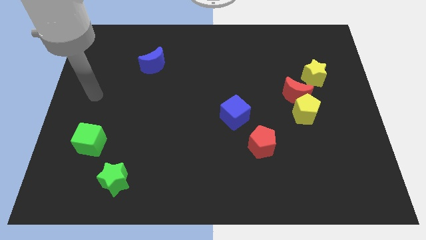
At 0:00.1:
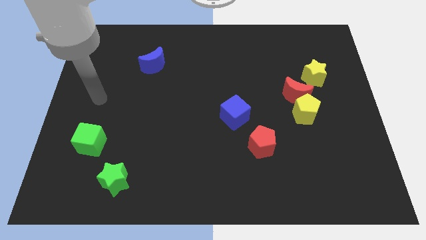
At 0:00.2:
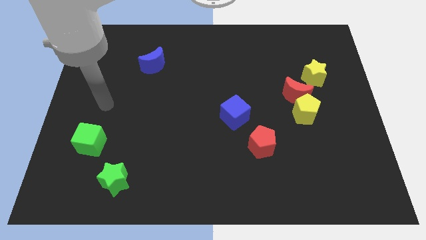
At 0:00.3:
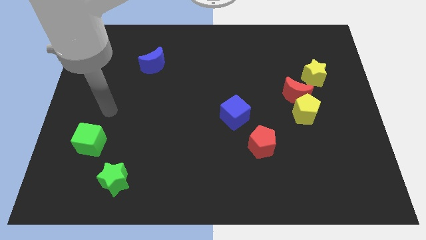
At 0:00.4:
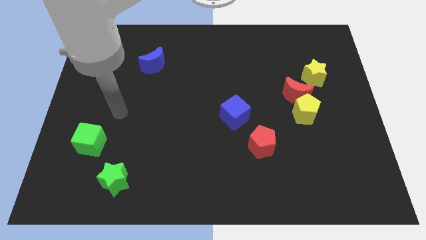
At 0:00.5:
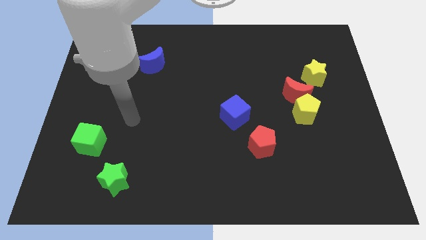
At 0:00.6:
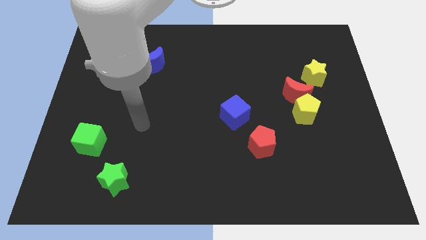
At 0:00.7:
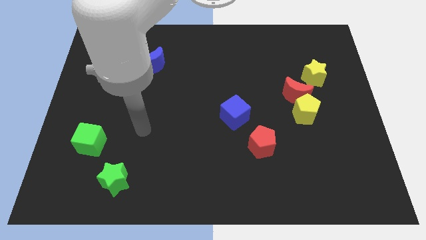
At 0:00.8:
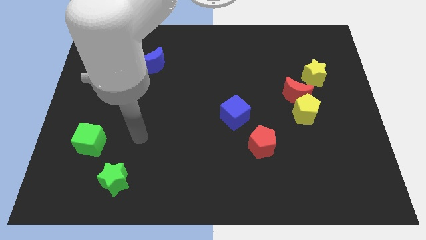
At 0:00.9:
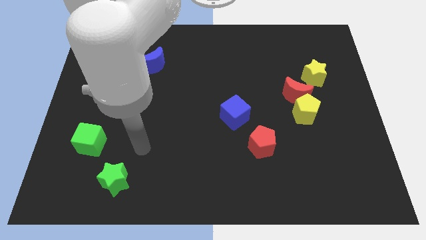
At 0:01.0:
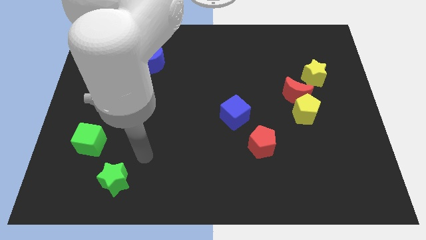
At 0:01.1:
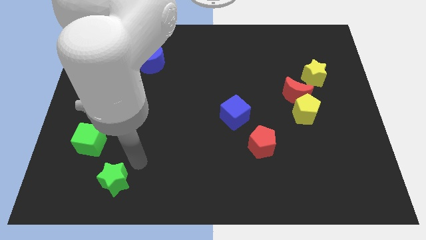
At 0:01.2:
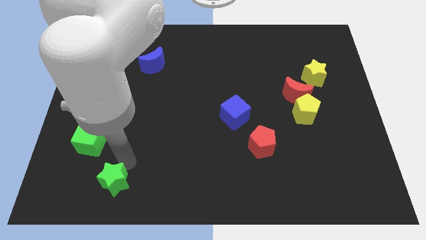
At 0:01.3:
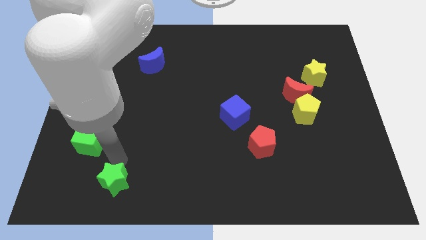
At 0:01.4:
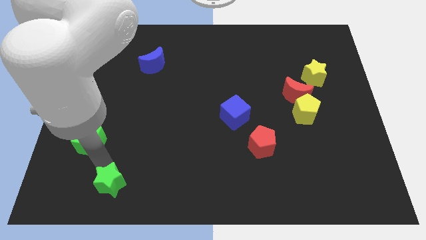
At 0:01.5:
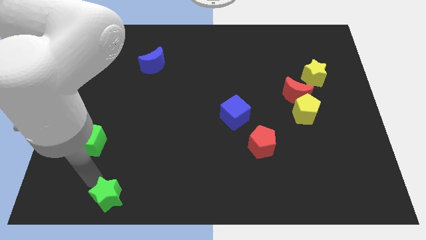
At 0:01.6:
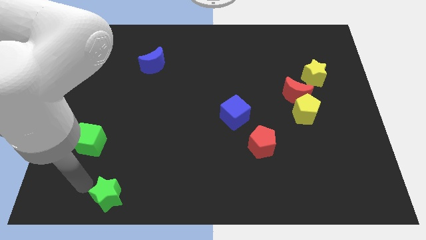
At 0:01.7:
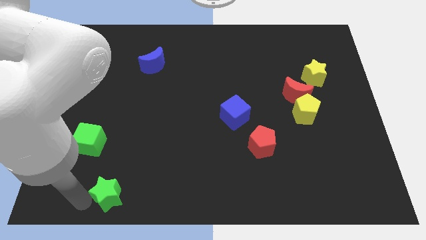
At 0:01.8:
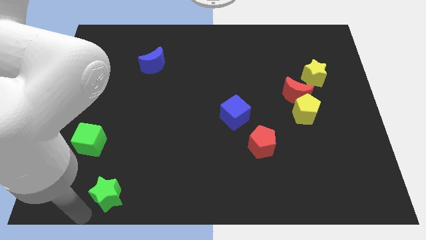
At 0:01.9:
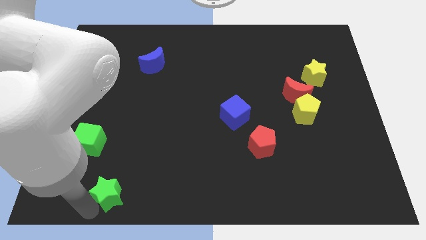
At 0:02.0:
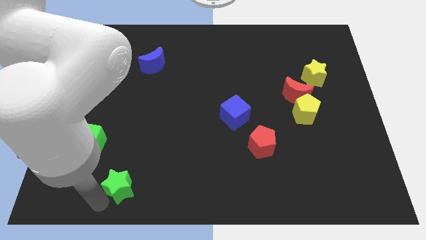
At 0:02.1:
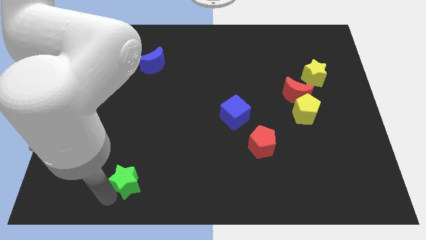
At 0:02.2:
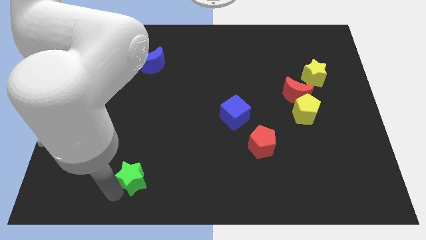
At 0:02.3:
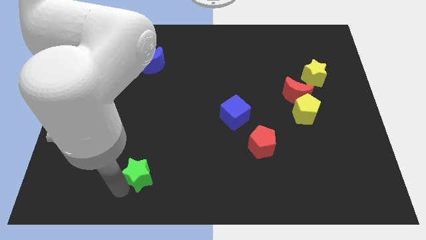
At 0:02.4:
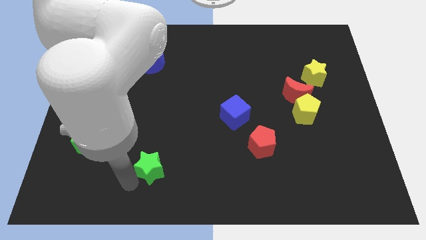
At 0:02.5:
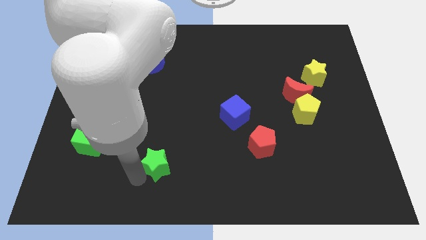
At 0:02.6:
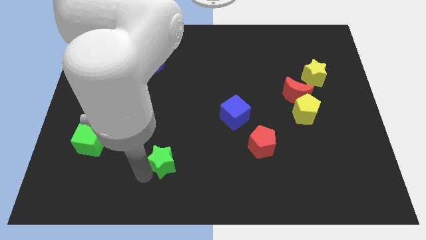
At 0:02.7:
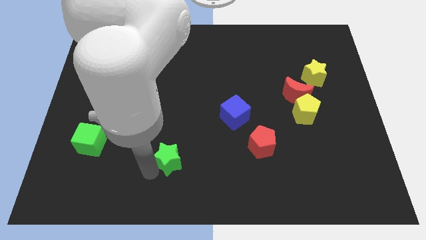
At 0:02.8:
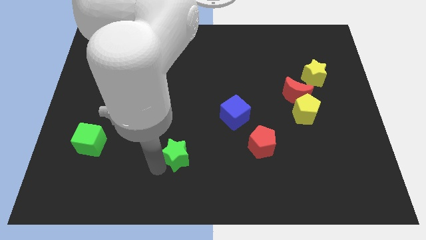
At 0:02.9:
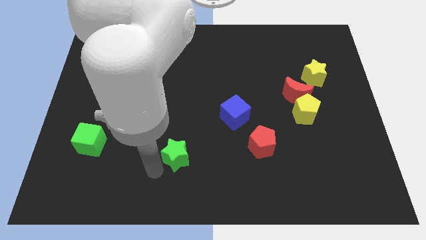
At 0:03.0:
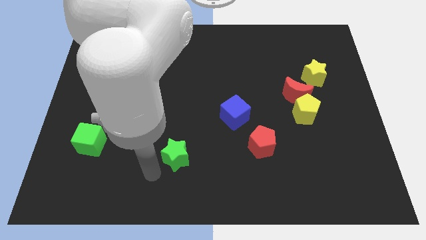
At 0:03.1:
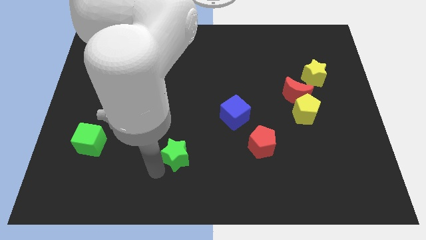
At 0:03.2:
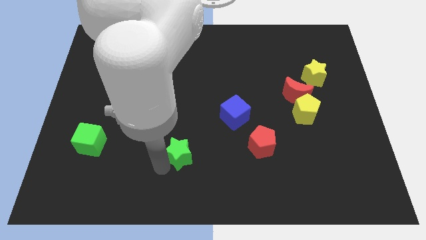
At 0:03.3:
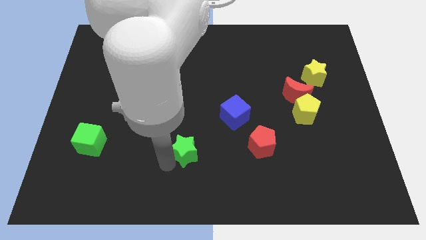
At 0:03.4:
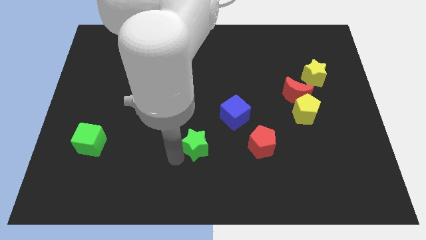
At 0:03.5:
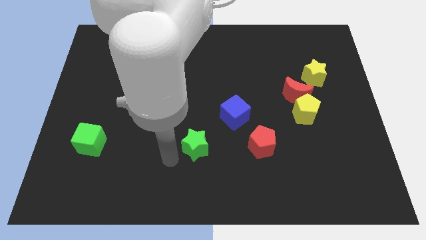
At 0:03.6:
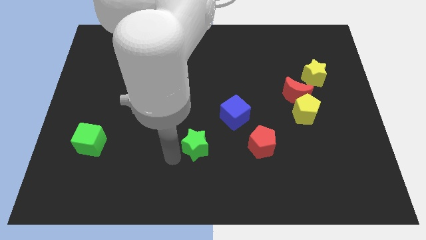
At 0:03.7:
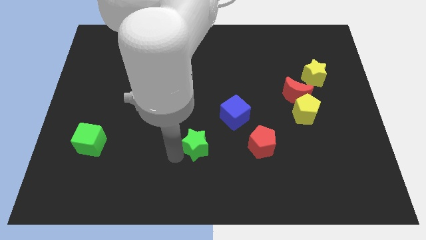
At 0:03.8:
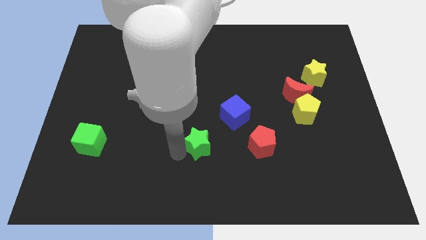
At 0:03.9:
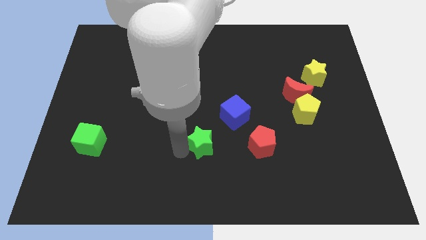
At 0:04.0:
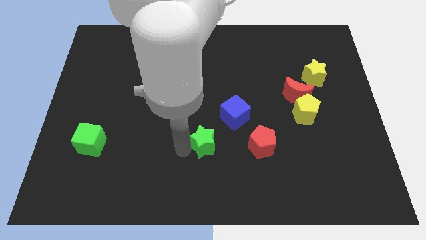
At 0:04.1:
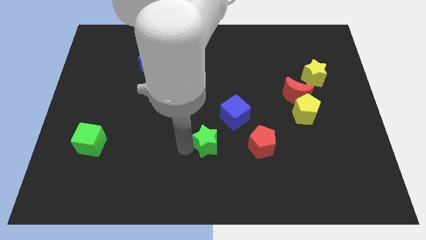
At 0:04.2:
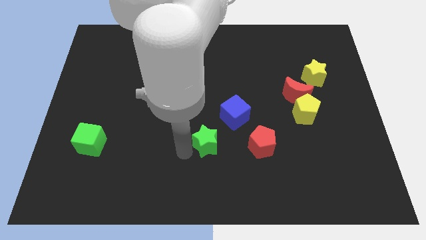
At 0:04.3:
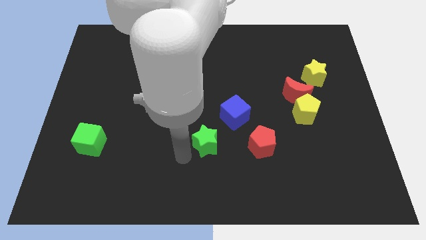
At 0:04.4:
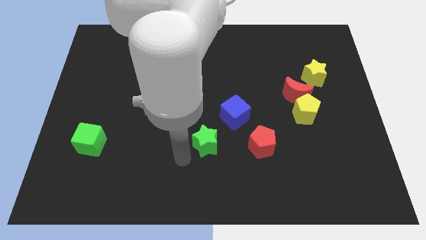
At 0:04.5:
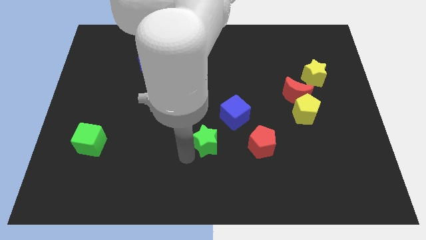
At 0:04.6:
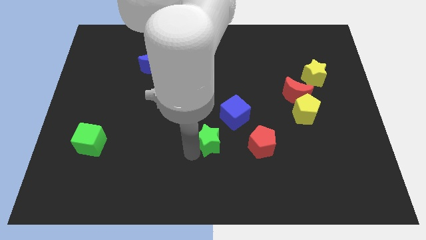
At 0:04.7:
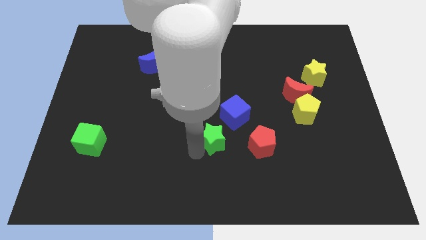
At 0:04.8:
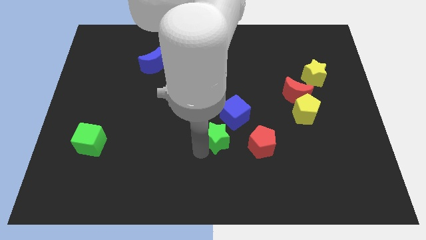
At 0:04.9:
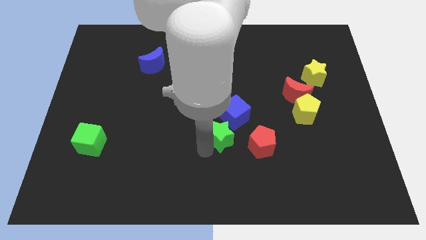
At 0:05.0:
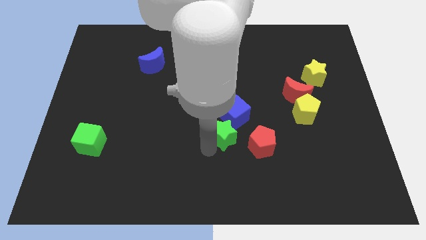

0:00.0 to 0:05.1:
slide the green star to the blue cube

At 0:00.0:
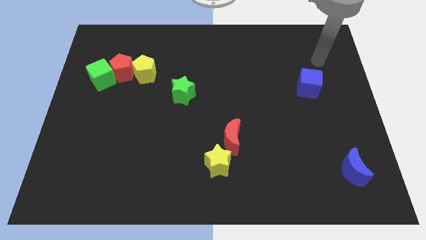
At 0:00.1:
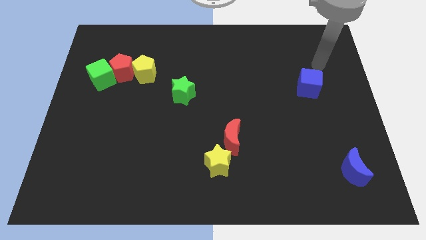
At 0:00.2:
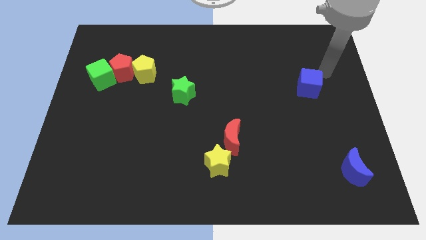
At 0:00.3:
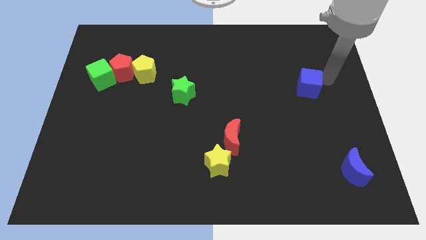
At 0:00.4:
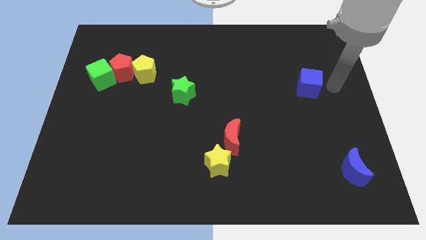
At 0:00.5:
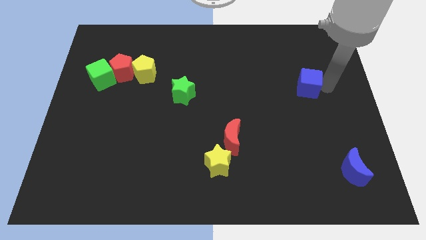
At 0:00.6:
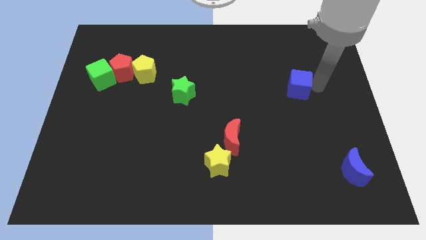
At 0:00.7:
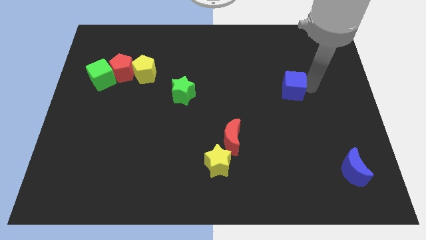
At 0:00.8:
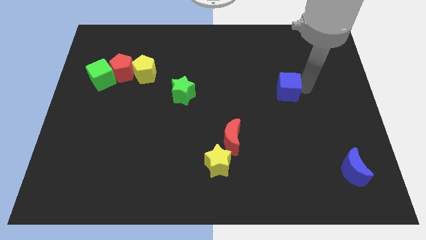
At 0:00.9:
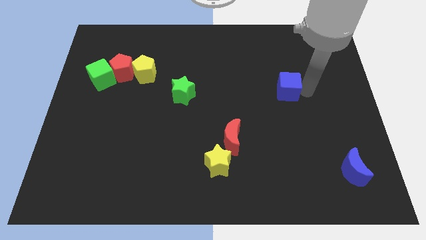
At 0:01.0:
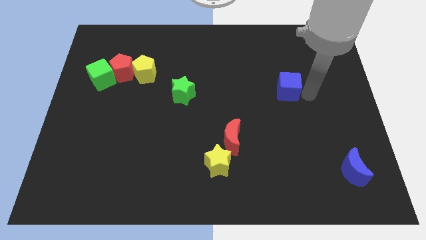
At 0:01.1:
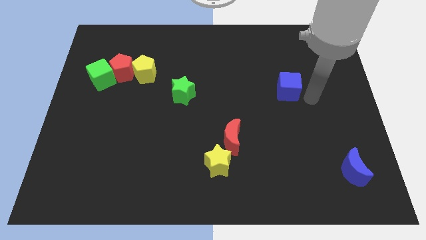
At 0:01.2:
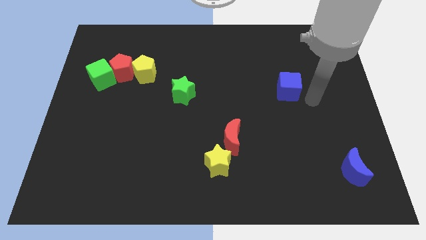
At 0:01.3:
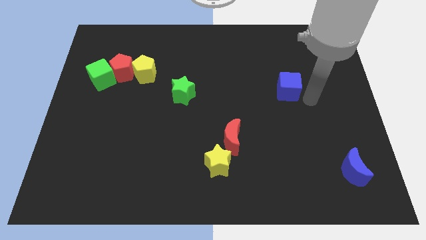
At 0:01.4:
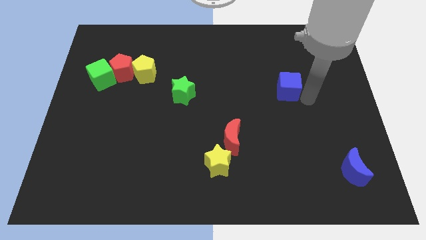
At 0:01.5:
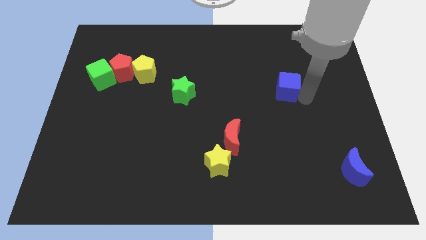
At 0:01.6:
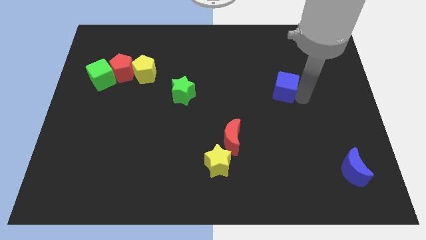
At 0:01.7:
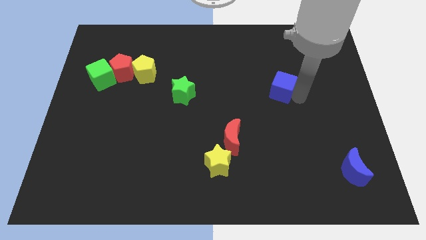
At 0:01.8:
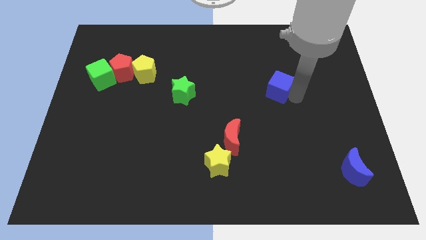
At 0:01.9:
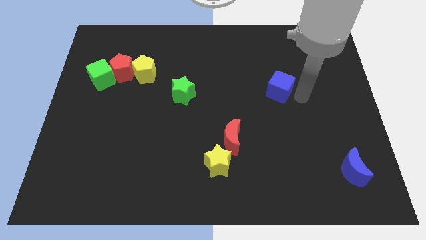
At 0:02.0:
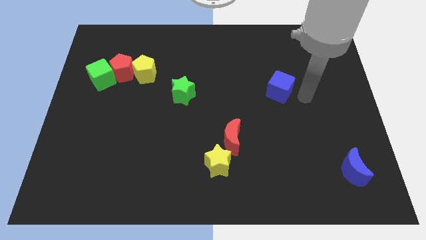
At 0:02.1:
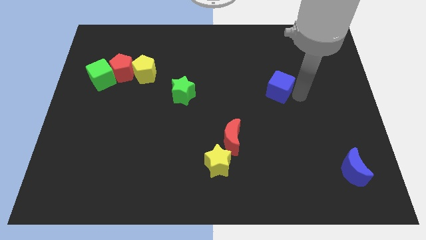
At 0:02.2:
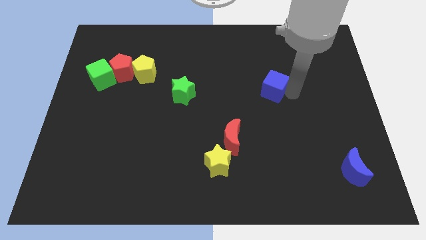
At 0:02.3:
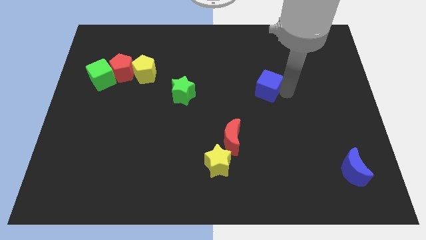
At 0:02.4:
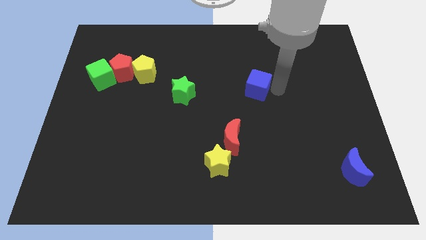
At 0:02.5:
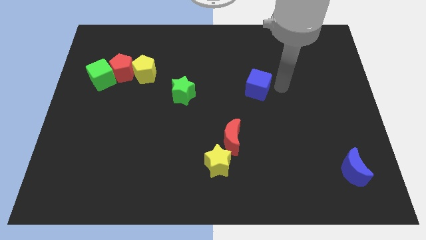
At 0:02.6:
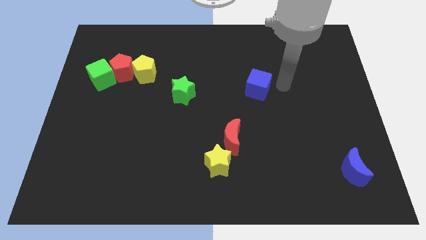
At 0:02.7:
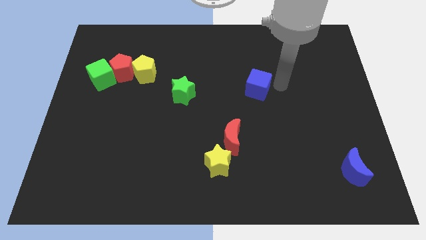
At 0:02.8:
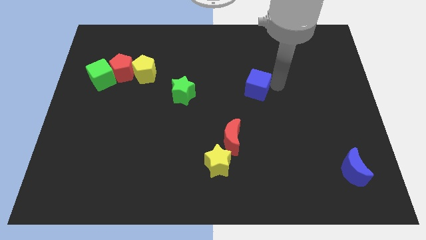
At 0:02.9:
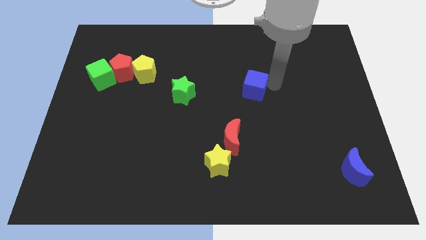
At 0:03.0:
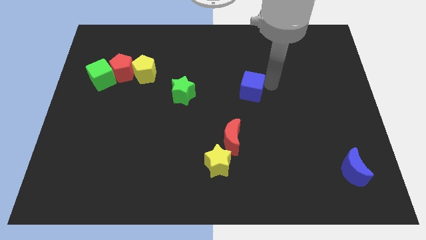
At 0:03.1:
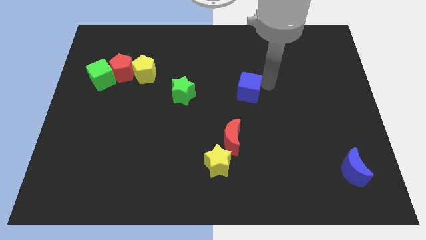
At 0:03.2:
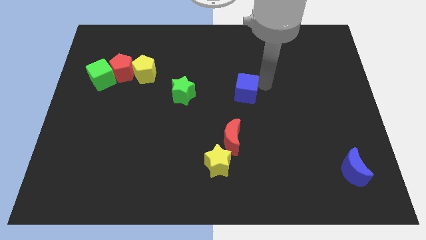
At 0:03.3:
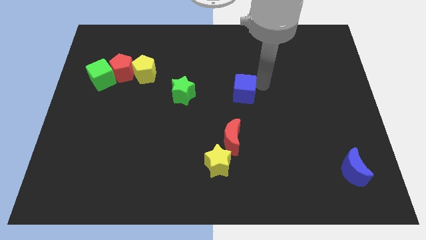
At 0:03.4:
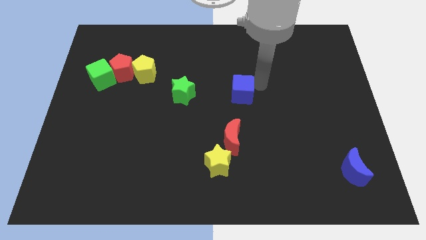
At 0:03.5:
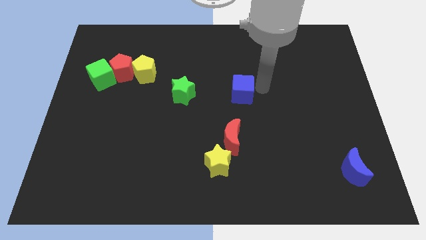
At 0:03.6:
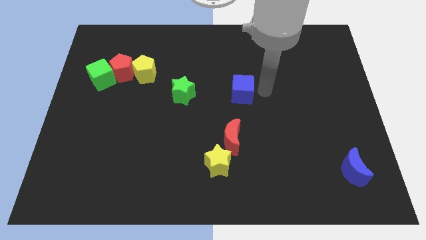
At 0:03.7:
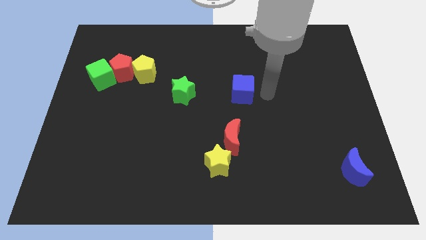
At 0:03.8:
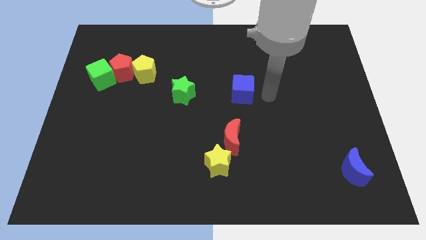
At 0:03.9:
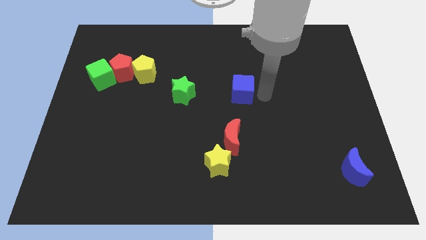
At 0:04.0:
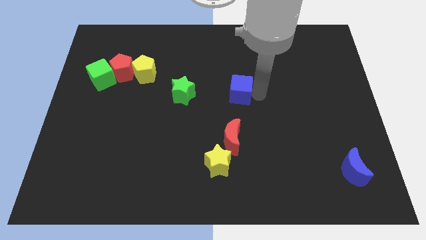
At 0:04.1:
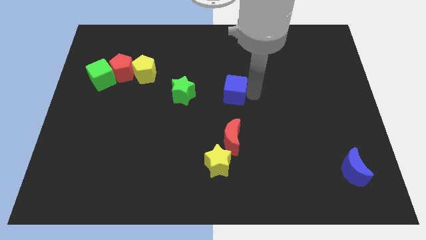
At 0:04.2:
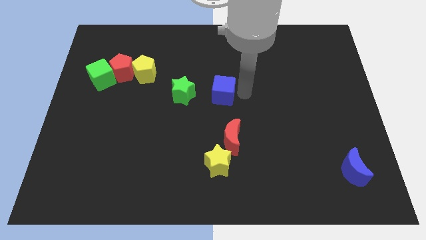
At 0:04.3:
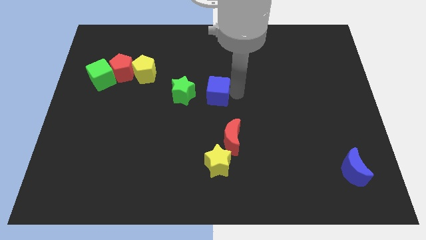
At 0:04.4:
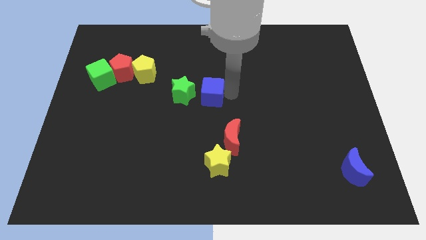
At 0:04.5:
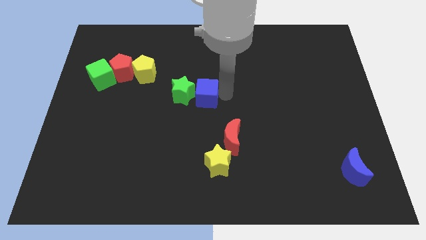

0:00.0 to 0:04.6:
push the blue cube to the green star
